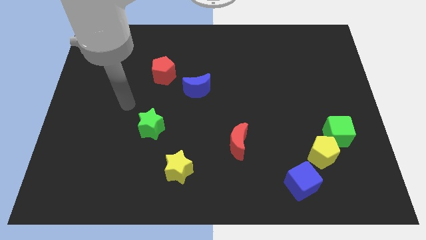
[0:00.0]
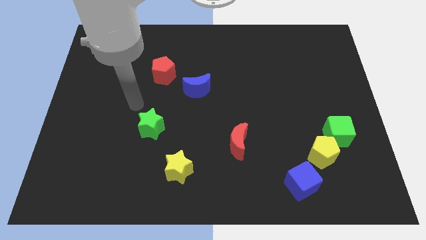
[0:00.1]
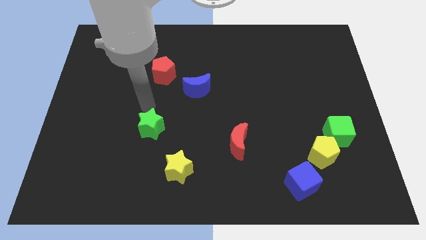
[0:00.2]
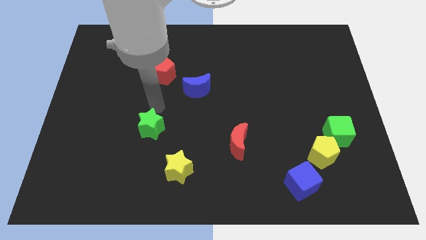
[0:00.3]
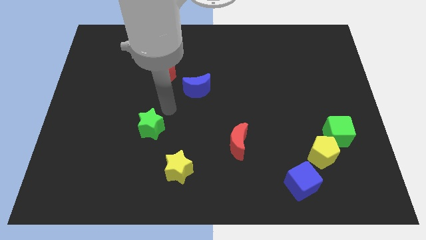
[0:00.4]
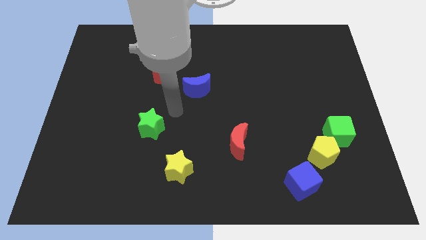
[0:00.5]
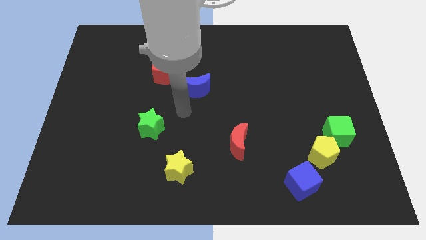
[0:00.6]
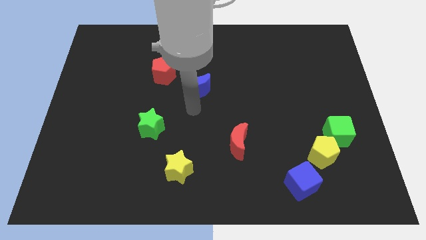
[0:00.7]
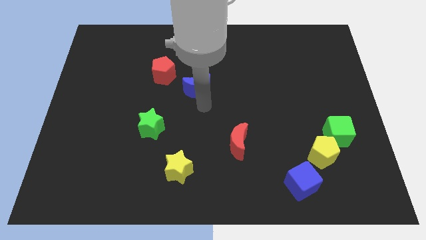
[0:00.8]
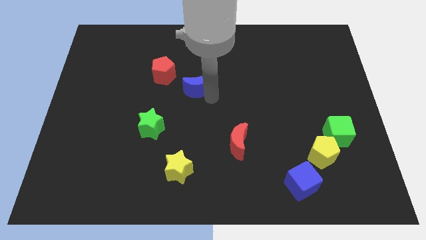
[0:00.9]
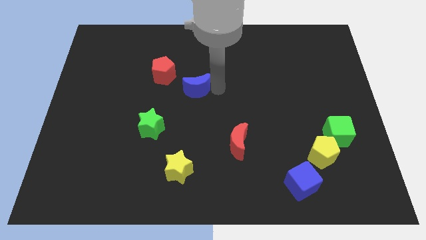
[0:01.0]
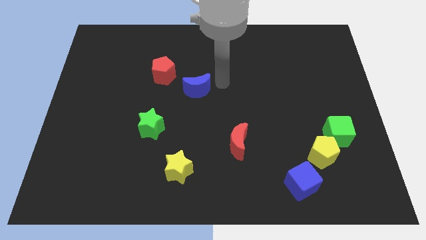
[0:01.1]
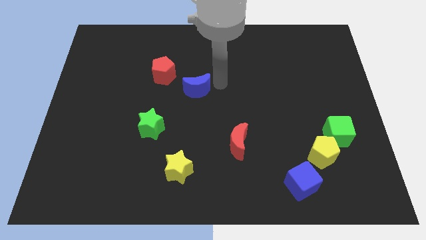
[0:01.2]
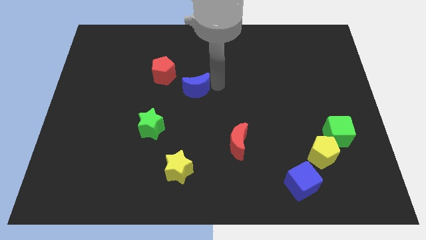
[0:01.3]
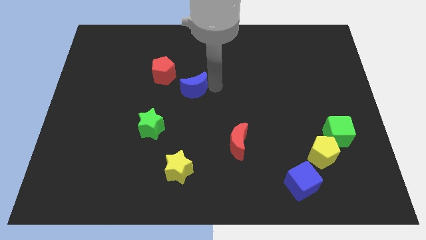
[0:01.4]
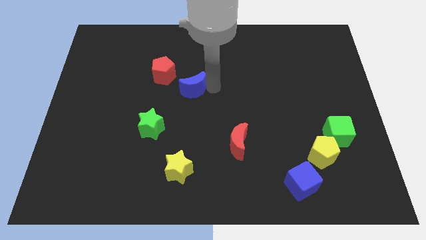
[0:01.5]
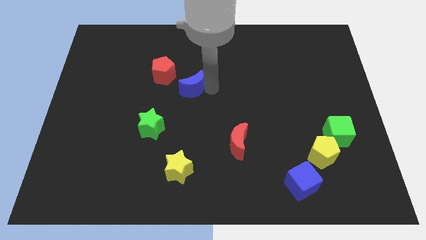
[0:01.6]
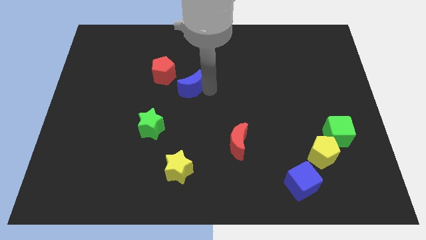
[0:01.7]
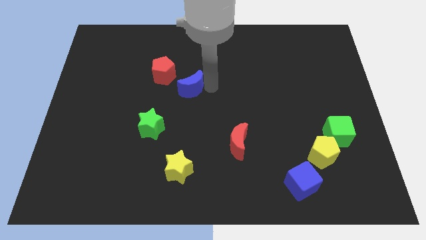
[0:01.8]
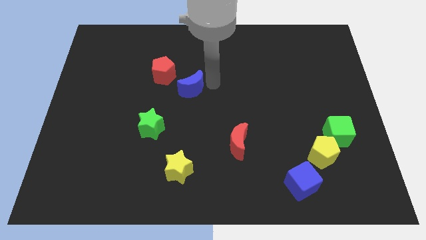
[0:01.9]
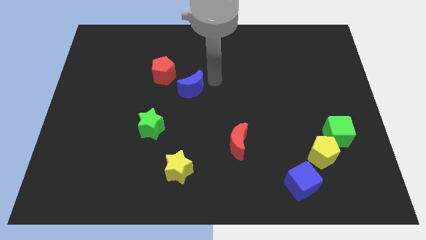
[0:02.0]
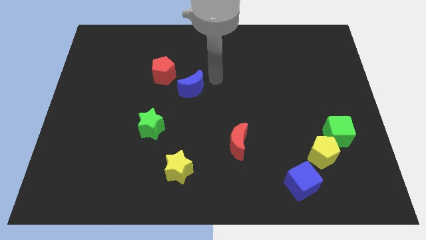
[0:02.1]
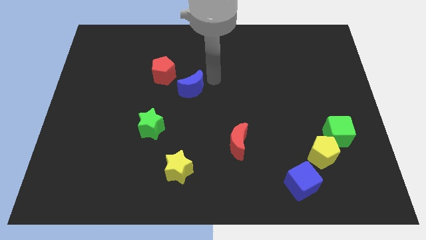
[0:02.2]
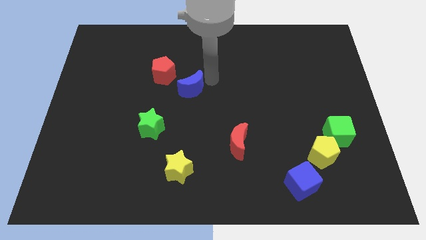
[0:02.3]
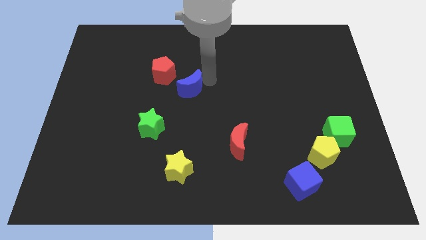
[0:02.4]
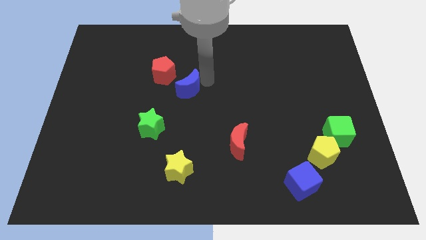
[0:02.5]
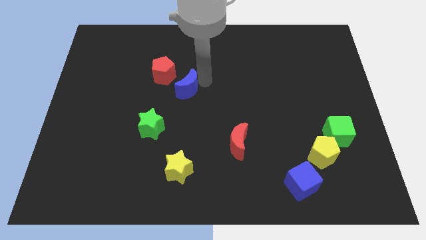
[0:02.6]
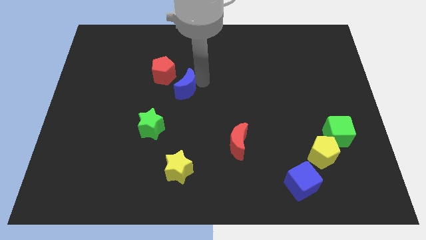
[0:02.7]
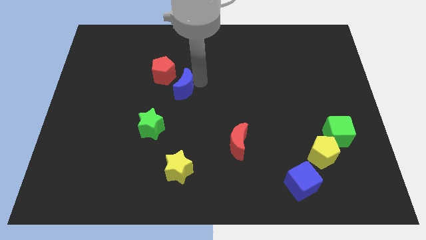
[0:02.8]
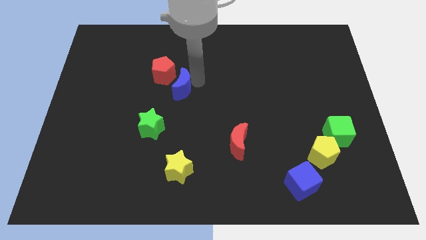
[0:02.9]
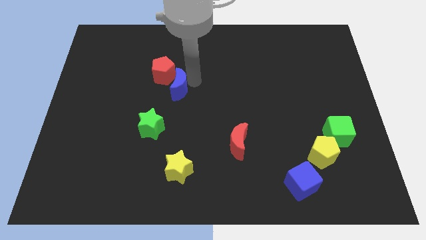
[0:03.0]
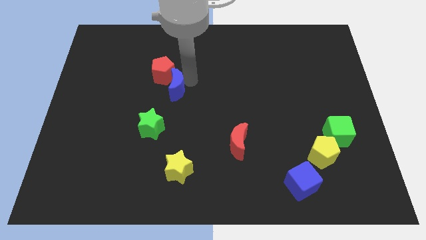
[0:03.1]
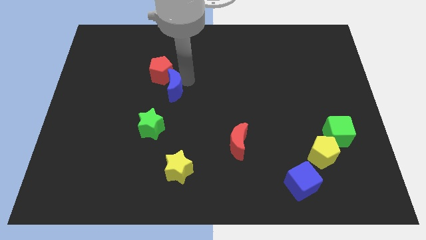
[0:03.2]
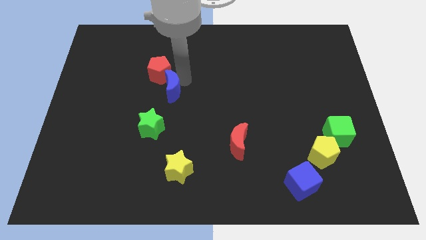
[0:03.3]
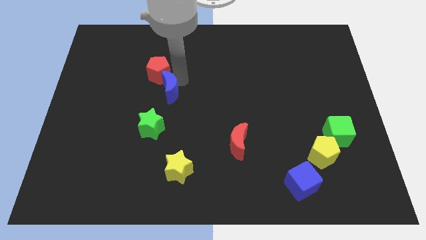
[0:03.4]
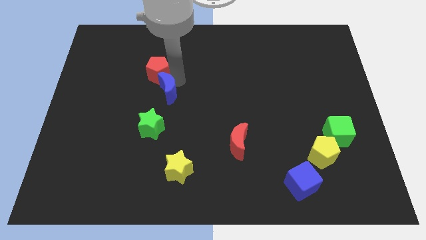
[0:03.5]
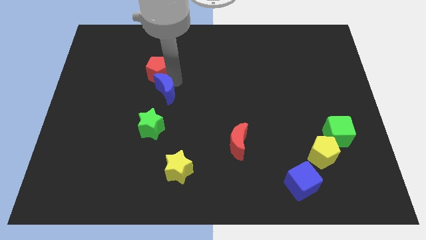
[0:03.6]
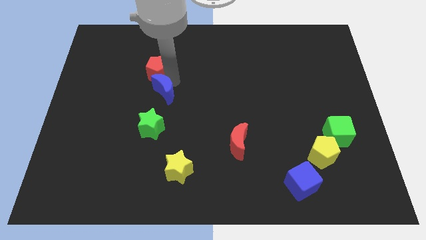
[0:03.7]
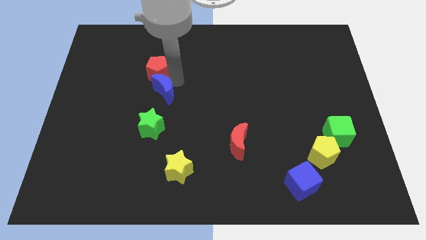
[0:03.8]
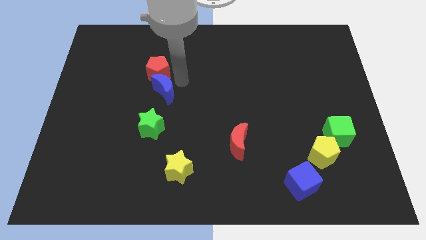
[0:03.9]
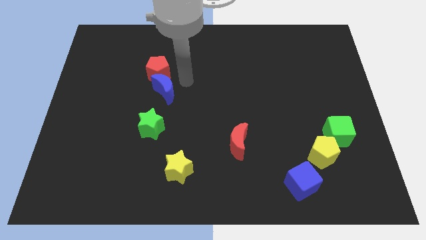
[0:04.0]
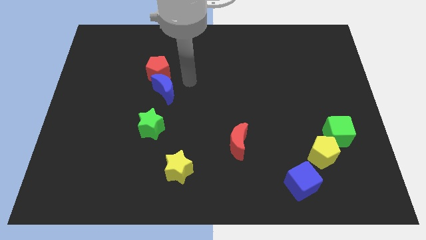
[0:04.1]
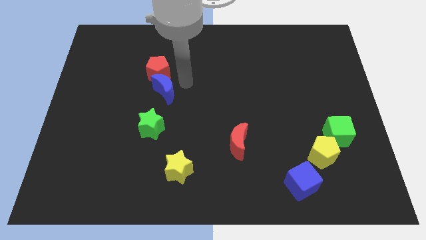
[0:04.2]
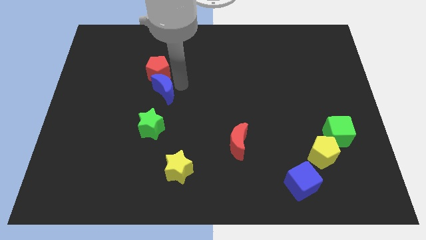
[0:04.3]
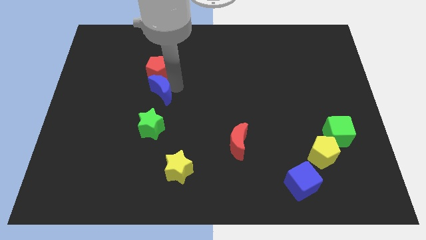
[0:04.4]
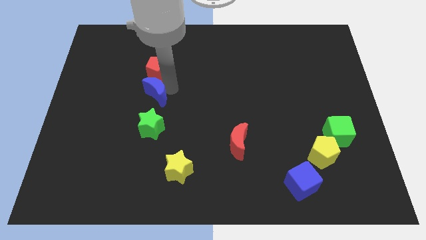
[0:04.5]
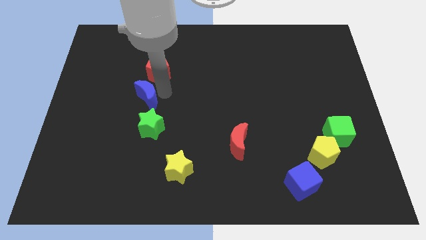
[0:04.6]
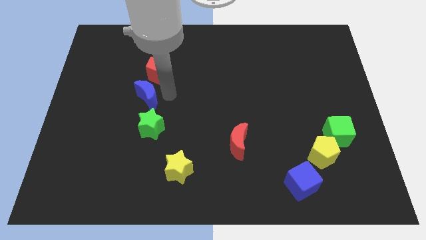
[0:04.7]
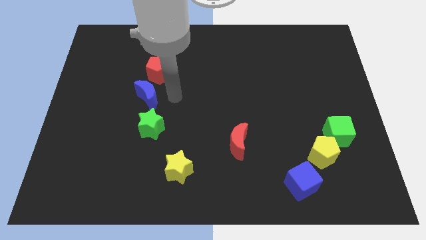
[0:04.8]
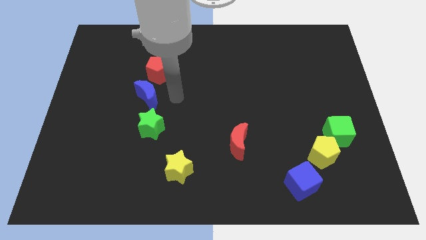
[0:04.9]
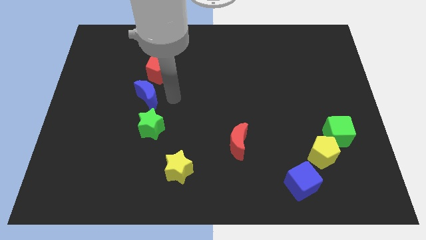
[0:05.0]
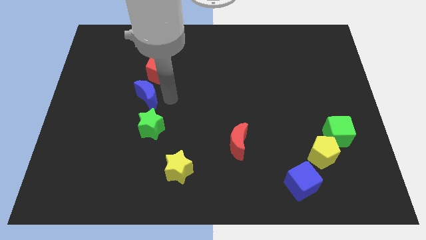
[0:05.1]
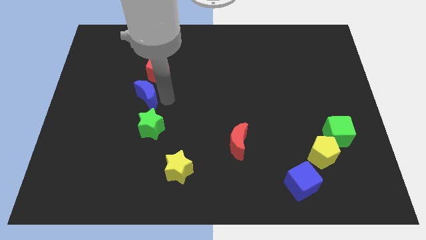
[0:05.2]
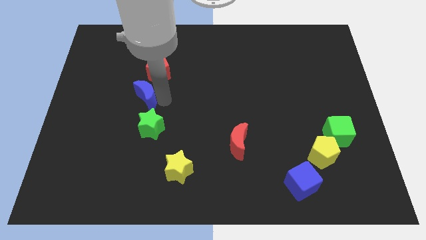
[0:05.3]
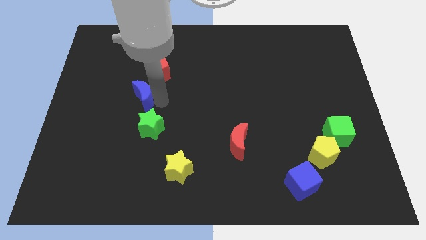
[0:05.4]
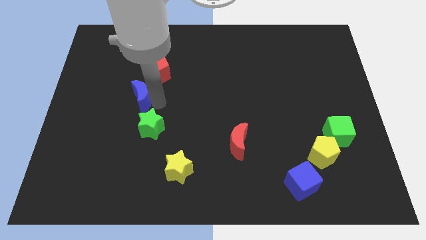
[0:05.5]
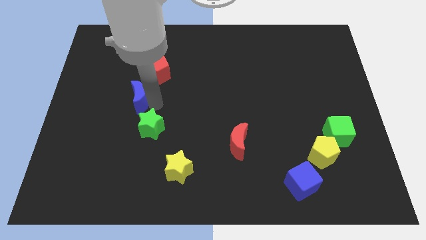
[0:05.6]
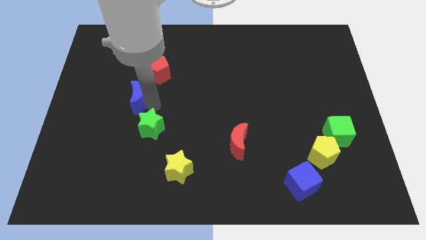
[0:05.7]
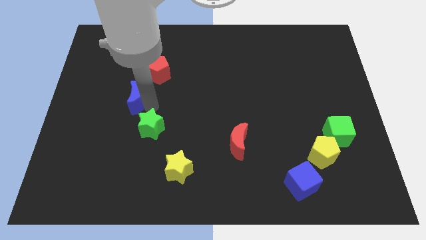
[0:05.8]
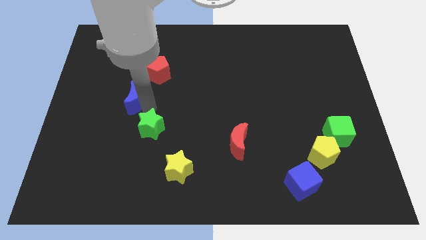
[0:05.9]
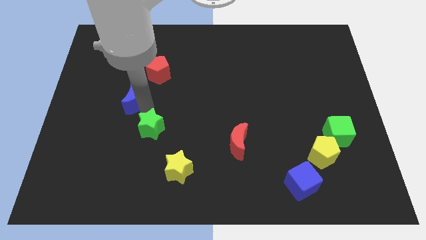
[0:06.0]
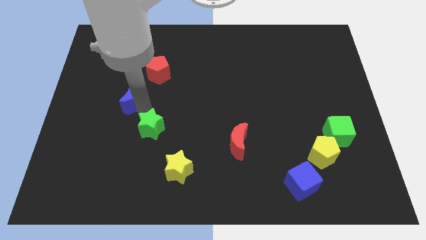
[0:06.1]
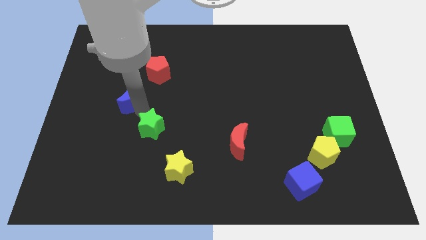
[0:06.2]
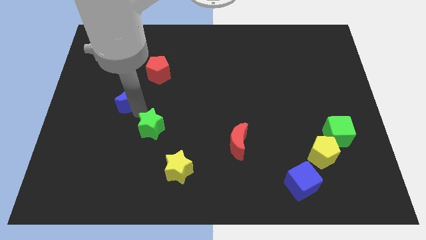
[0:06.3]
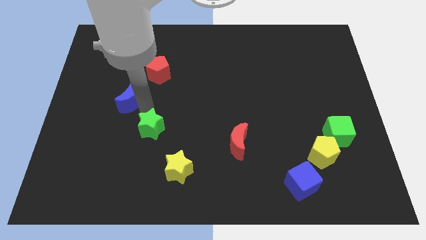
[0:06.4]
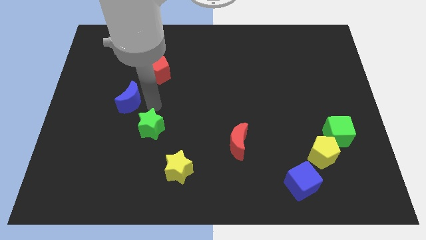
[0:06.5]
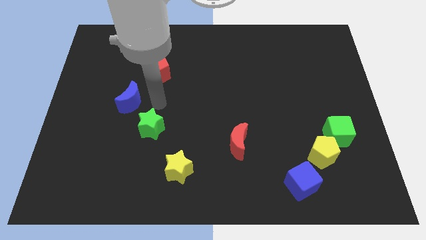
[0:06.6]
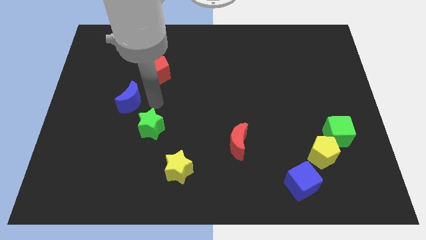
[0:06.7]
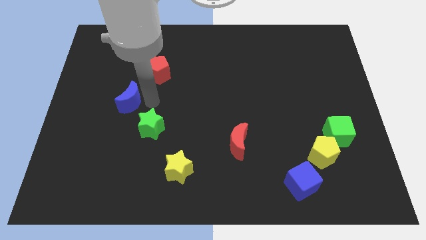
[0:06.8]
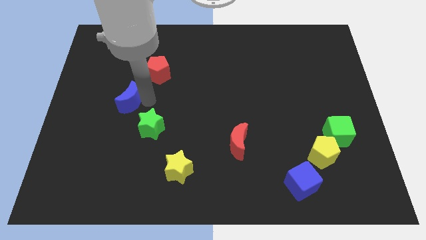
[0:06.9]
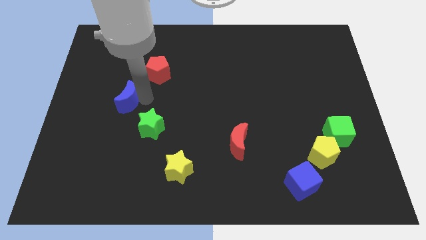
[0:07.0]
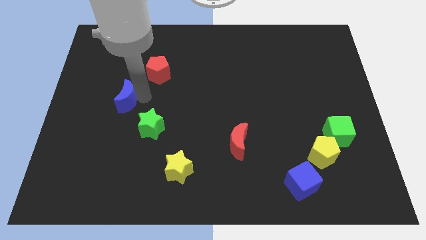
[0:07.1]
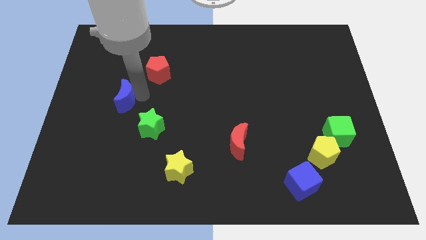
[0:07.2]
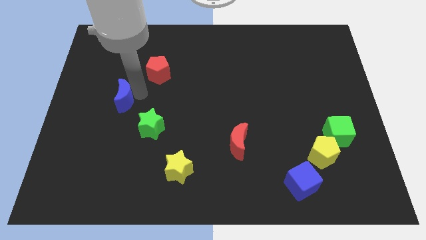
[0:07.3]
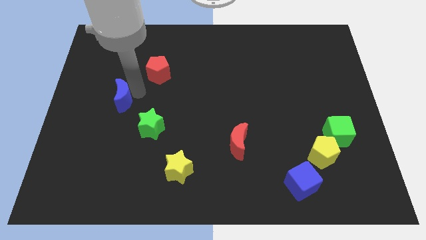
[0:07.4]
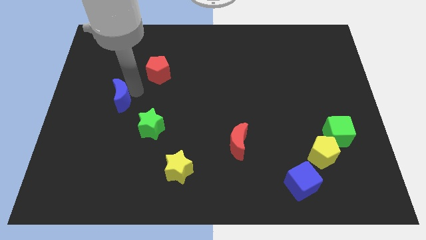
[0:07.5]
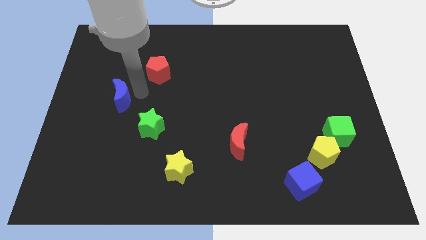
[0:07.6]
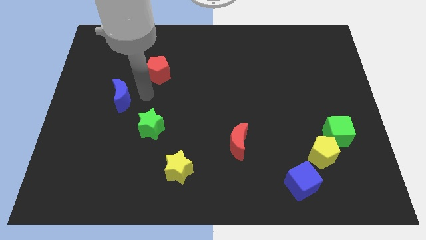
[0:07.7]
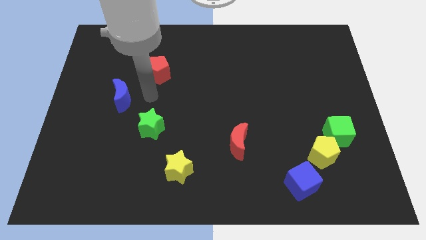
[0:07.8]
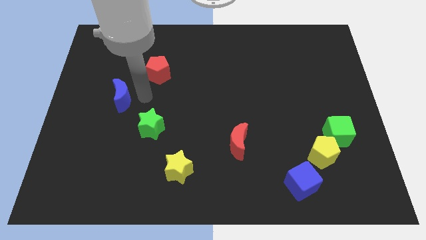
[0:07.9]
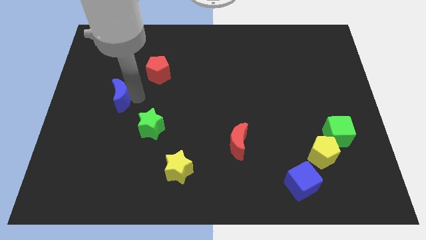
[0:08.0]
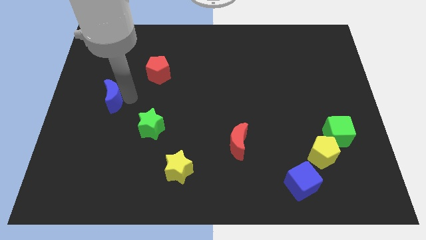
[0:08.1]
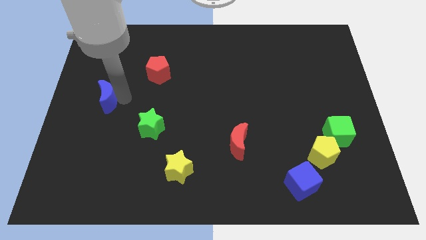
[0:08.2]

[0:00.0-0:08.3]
put the blue moon to the center left
